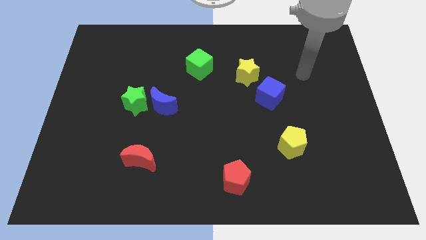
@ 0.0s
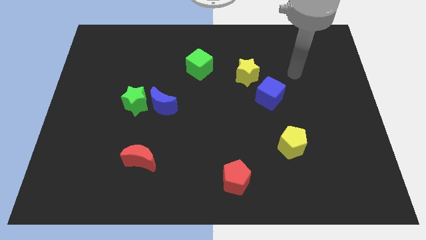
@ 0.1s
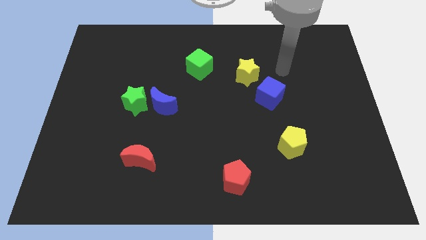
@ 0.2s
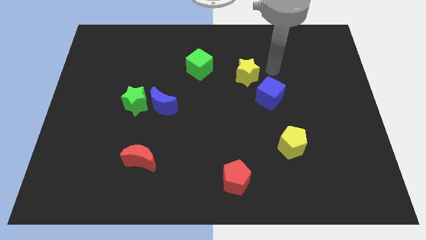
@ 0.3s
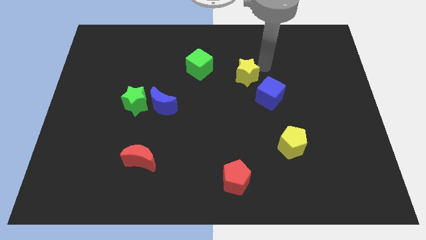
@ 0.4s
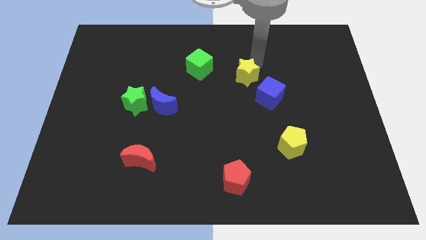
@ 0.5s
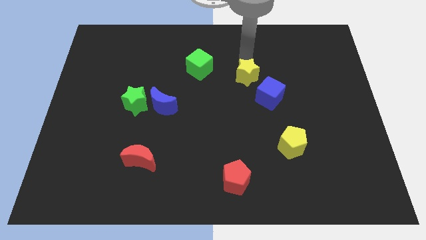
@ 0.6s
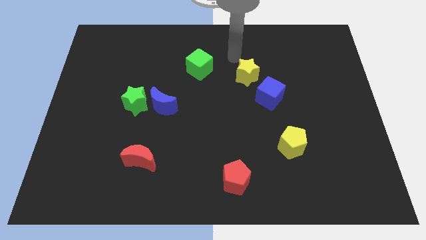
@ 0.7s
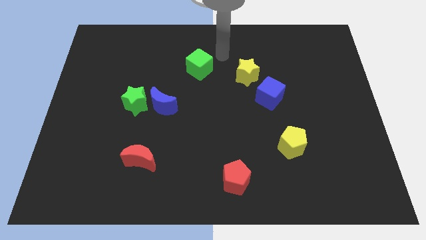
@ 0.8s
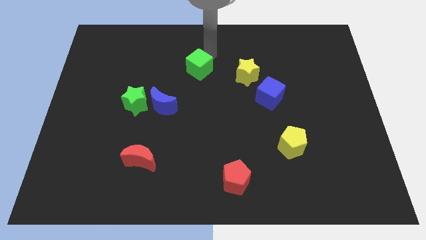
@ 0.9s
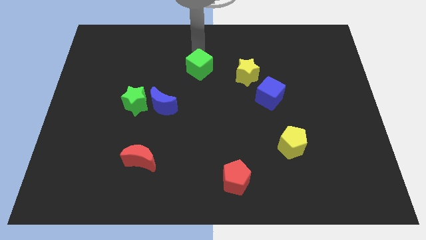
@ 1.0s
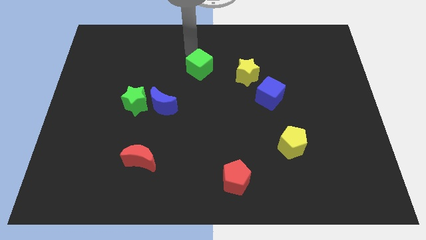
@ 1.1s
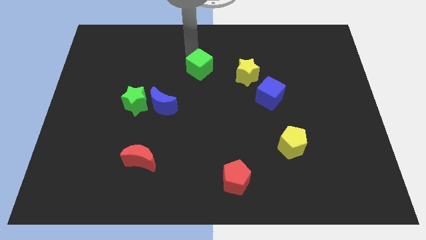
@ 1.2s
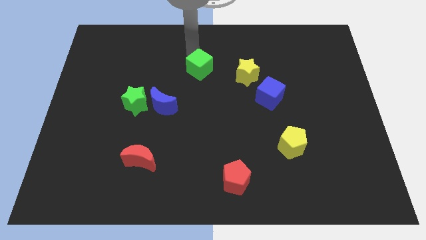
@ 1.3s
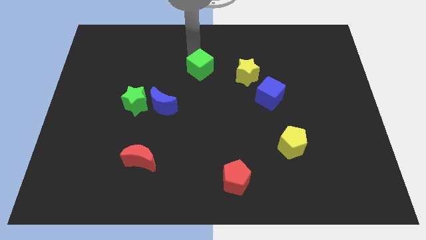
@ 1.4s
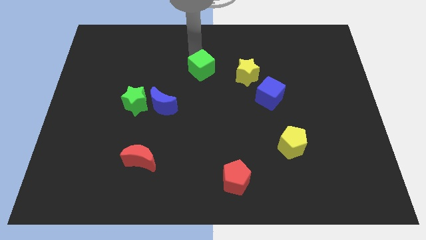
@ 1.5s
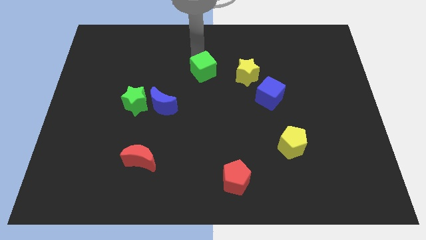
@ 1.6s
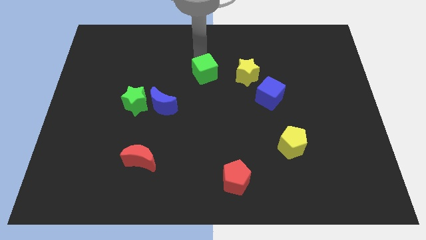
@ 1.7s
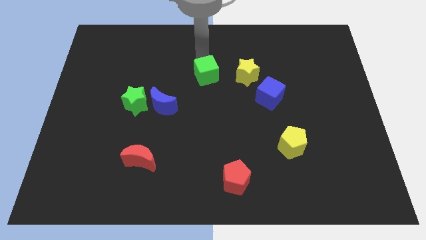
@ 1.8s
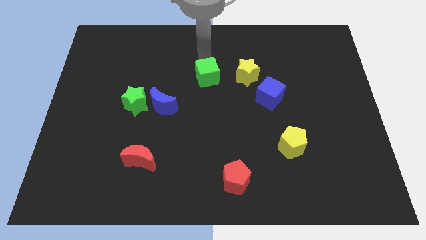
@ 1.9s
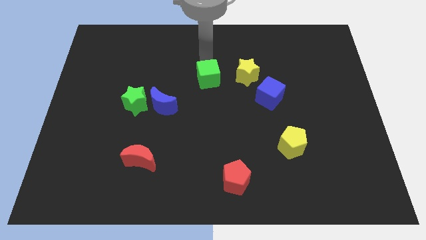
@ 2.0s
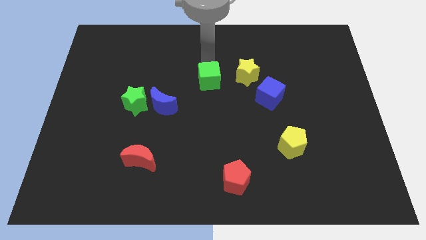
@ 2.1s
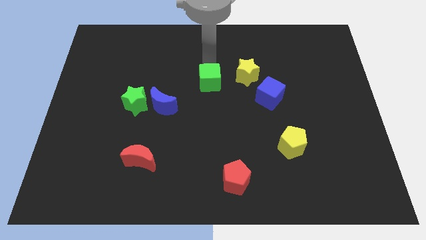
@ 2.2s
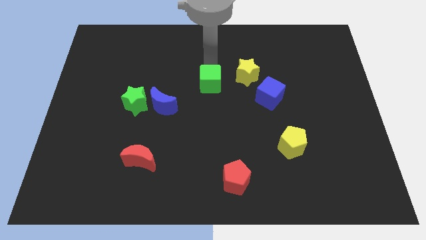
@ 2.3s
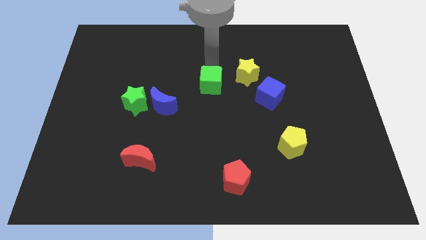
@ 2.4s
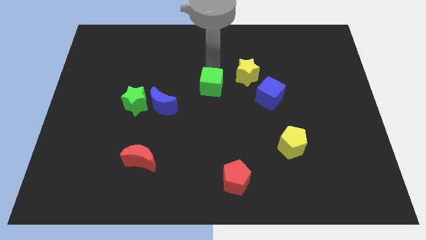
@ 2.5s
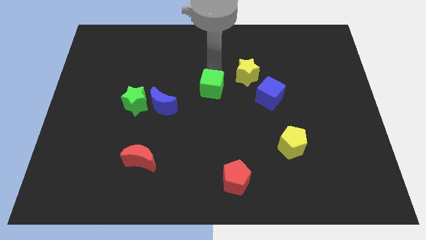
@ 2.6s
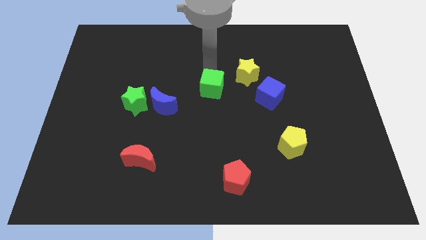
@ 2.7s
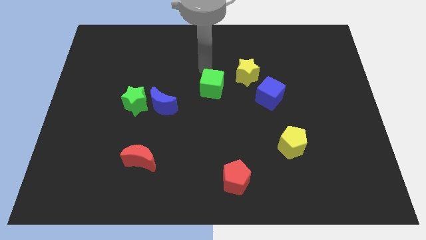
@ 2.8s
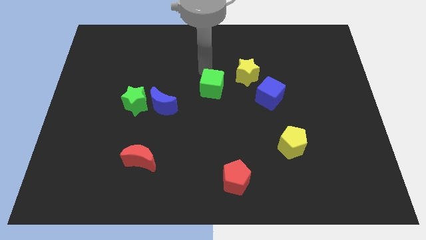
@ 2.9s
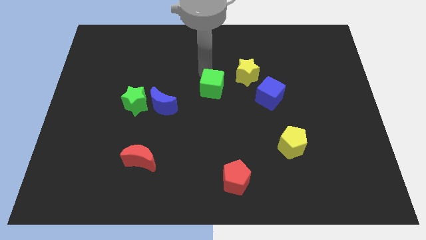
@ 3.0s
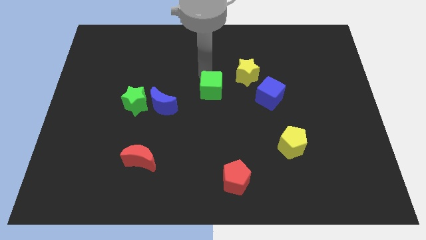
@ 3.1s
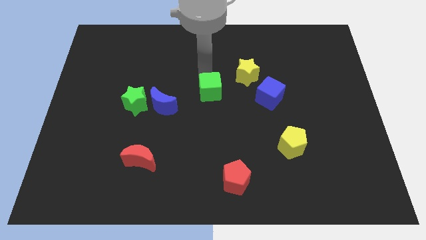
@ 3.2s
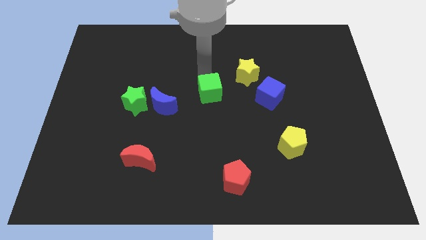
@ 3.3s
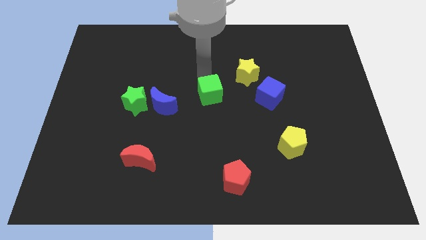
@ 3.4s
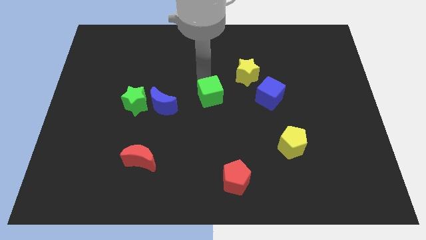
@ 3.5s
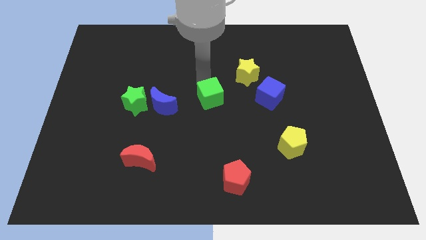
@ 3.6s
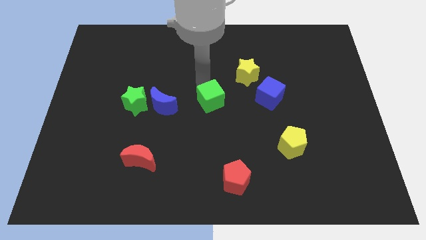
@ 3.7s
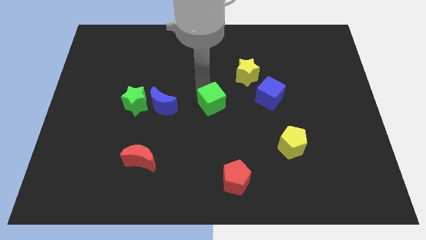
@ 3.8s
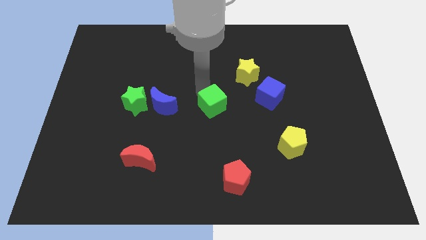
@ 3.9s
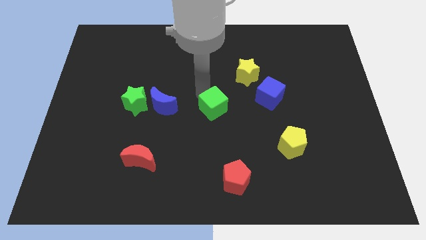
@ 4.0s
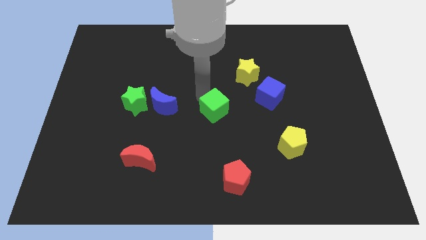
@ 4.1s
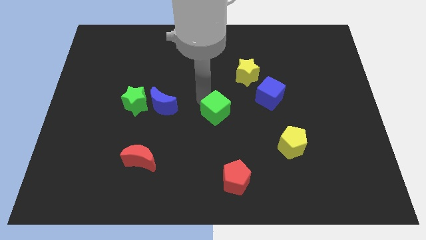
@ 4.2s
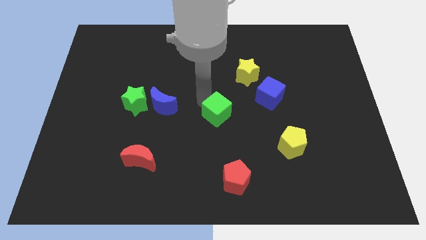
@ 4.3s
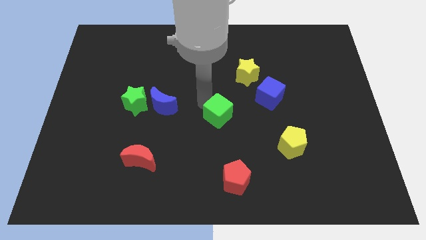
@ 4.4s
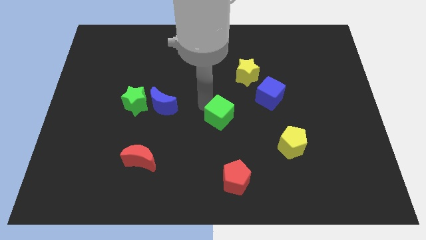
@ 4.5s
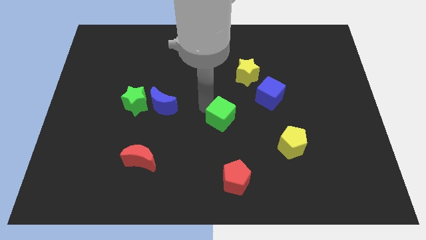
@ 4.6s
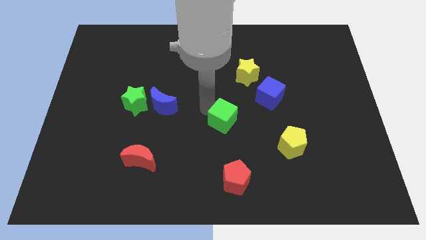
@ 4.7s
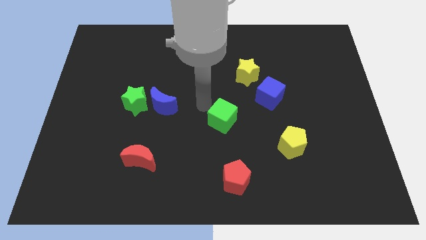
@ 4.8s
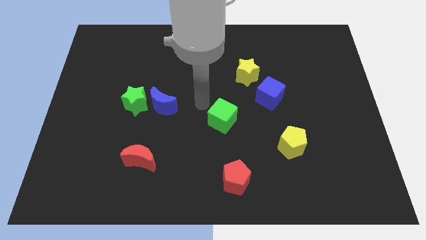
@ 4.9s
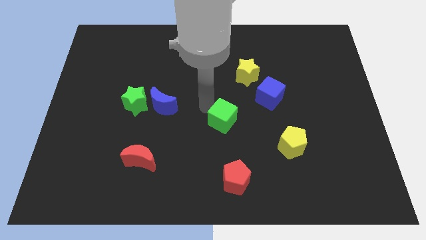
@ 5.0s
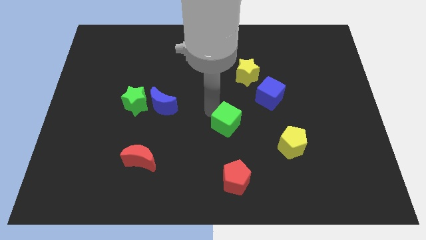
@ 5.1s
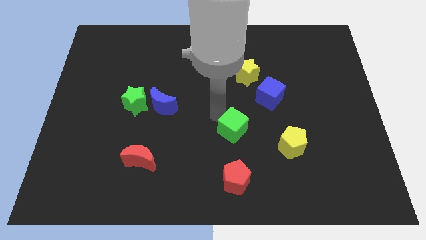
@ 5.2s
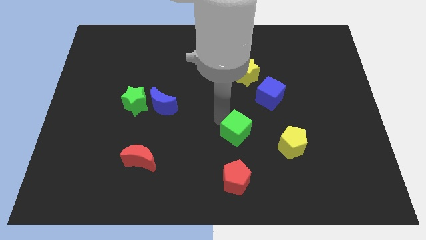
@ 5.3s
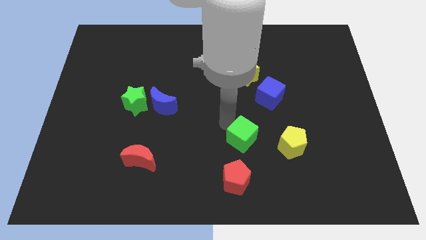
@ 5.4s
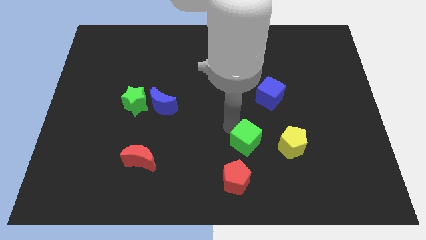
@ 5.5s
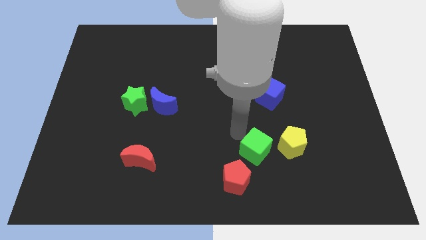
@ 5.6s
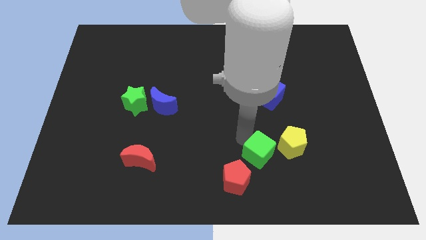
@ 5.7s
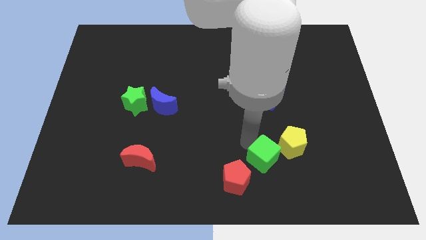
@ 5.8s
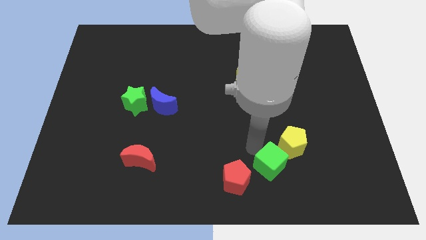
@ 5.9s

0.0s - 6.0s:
push the green cube to the right of the red pentagon
